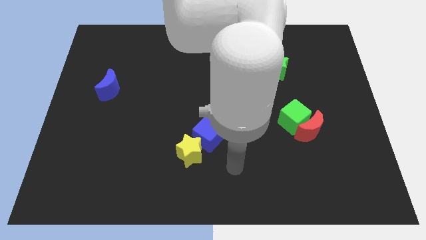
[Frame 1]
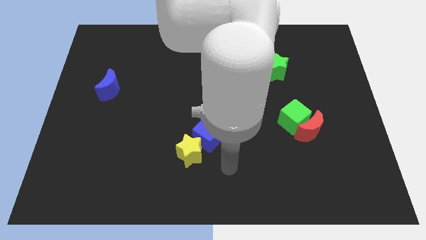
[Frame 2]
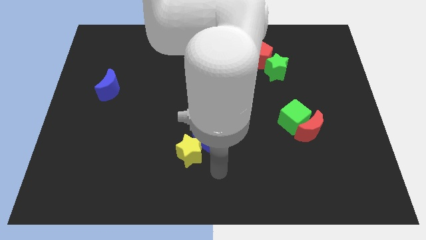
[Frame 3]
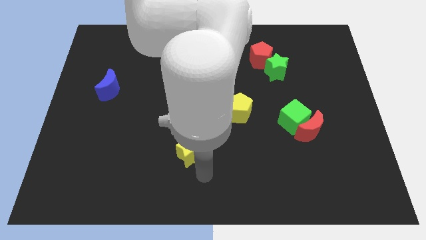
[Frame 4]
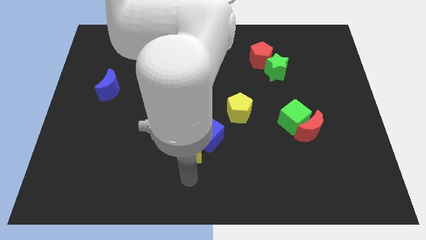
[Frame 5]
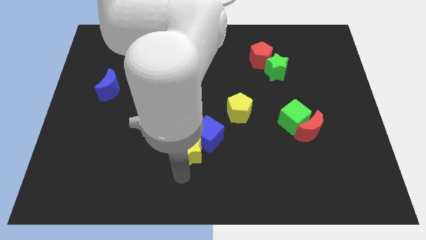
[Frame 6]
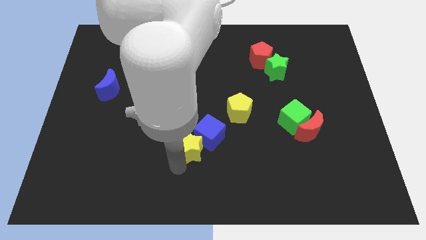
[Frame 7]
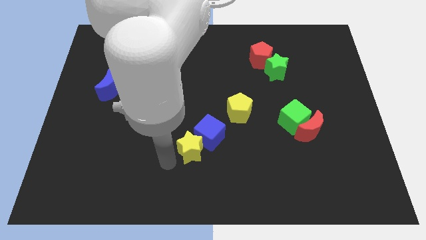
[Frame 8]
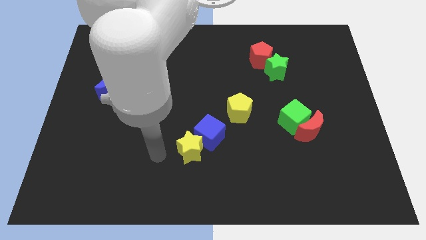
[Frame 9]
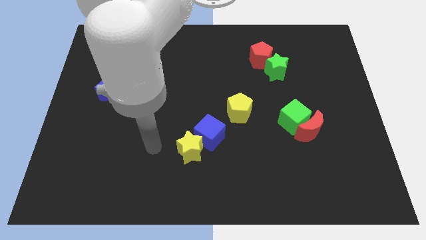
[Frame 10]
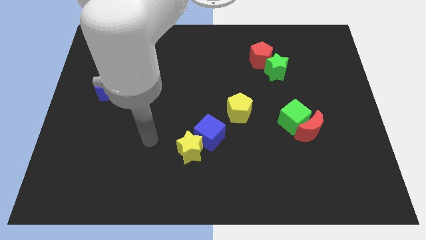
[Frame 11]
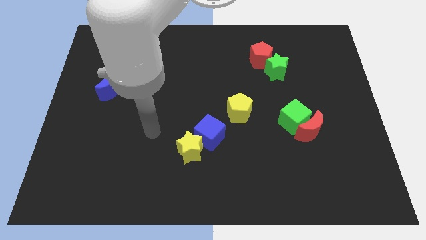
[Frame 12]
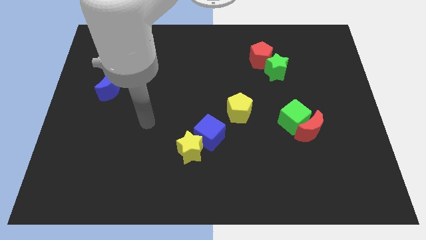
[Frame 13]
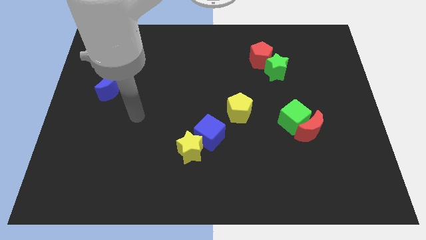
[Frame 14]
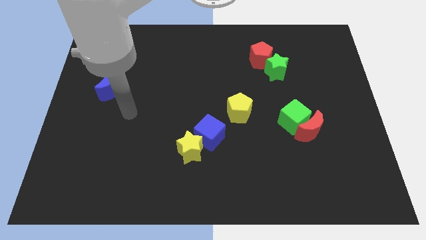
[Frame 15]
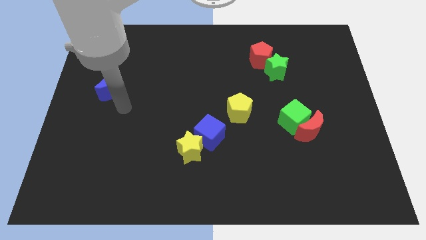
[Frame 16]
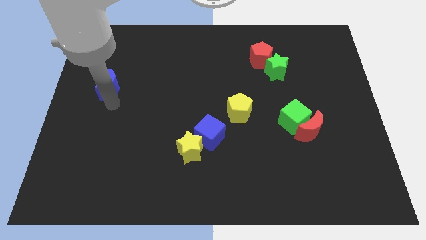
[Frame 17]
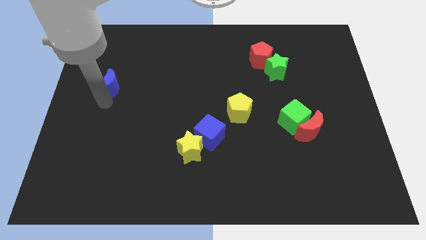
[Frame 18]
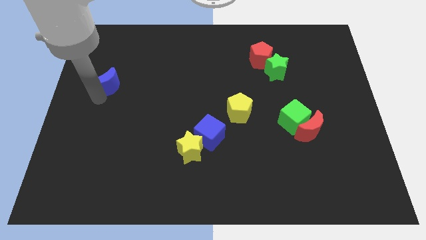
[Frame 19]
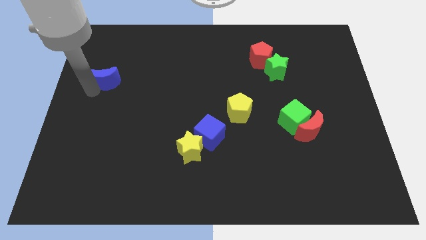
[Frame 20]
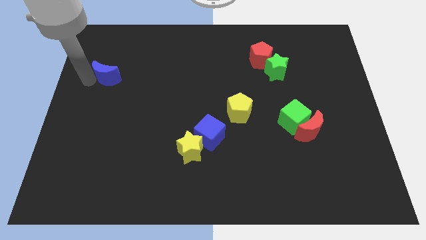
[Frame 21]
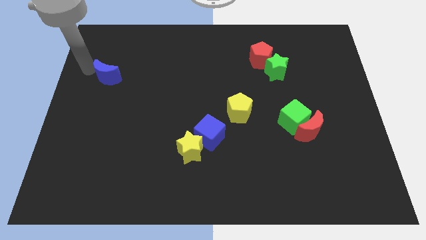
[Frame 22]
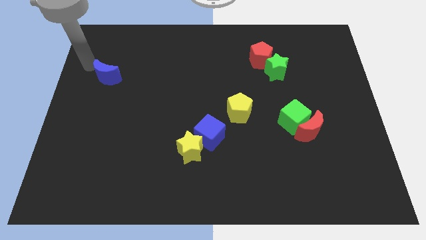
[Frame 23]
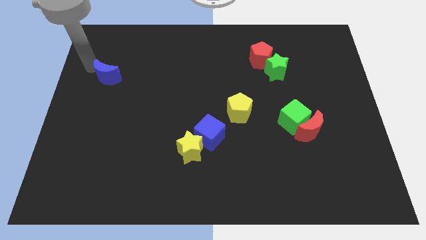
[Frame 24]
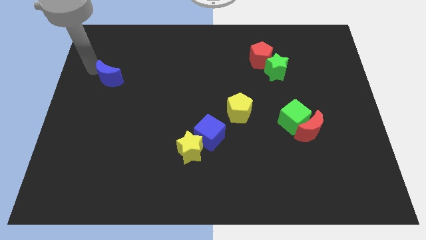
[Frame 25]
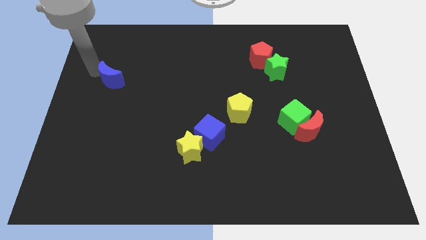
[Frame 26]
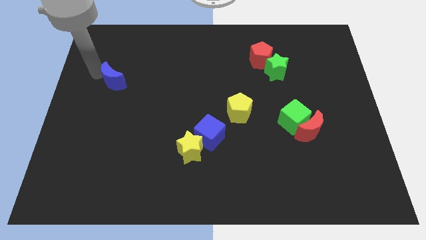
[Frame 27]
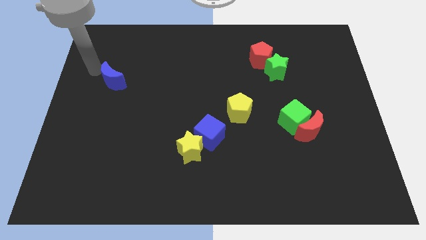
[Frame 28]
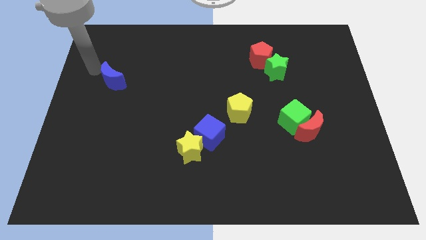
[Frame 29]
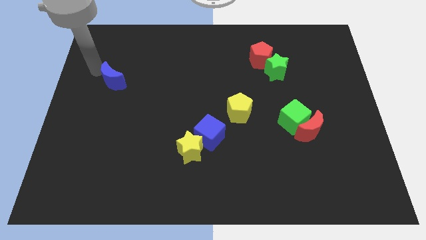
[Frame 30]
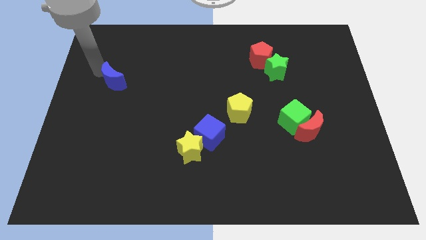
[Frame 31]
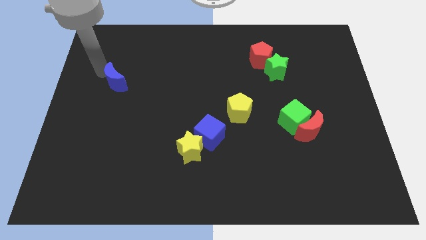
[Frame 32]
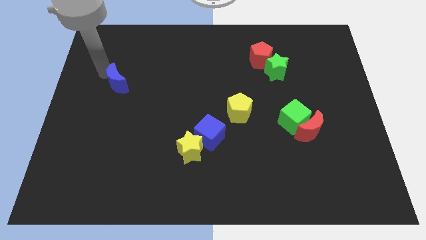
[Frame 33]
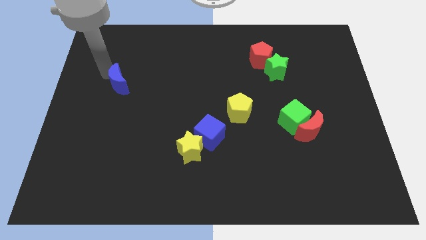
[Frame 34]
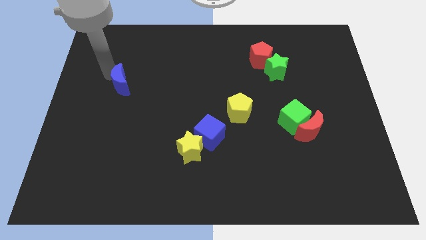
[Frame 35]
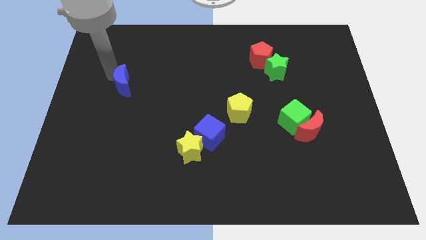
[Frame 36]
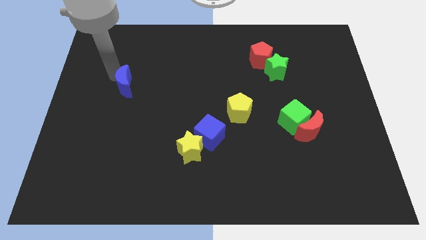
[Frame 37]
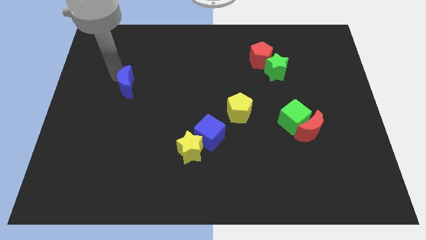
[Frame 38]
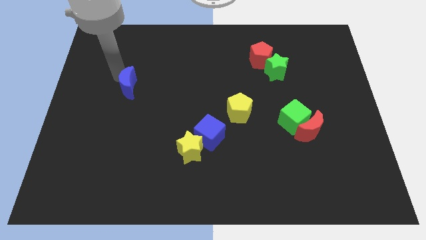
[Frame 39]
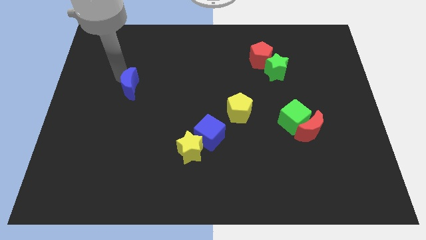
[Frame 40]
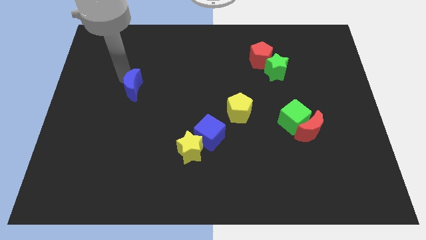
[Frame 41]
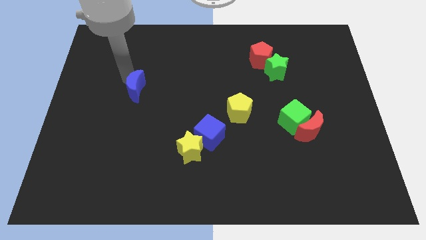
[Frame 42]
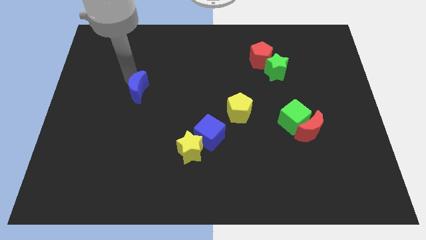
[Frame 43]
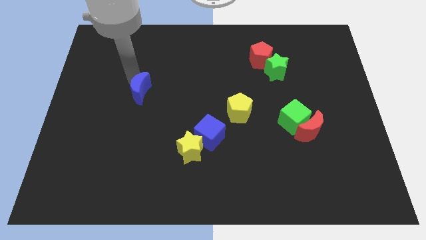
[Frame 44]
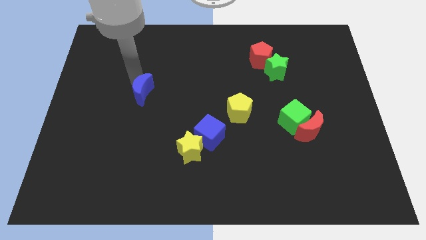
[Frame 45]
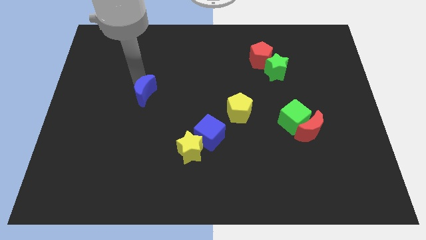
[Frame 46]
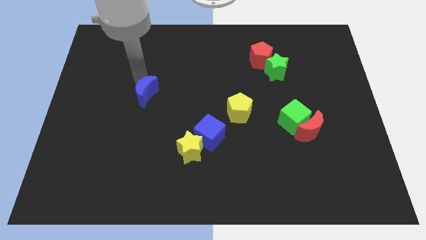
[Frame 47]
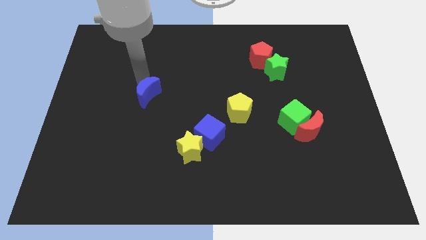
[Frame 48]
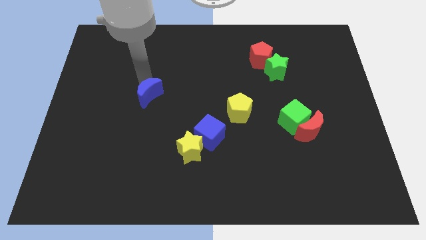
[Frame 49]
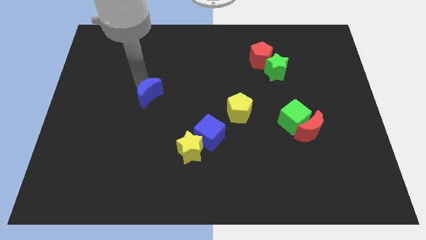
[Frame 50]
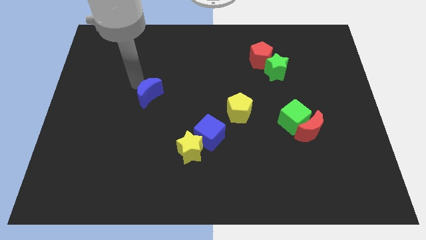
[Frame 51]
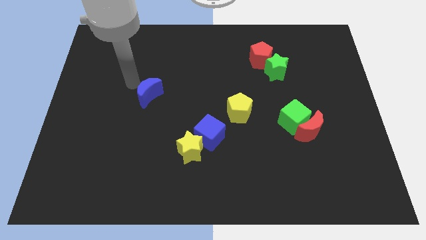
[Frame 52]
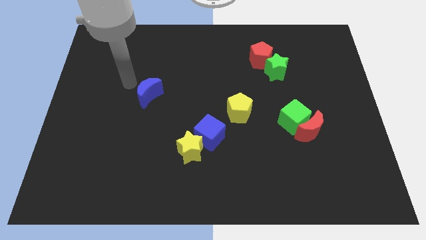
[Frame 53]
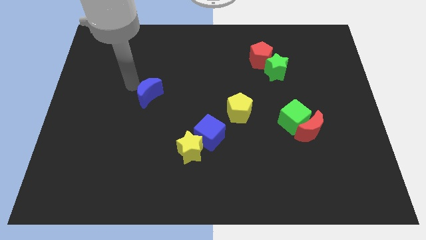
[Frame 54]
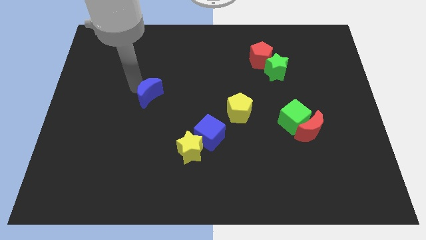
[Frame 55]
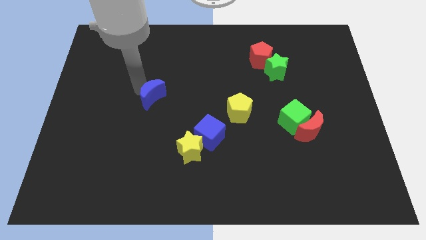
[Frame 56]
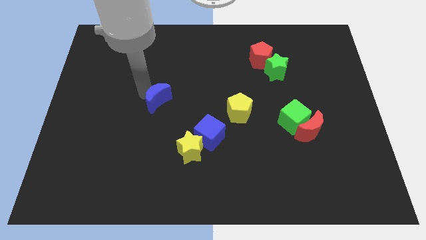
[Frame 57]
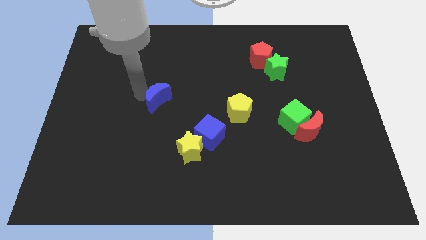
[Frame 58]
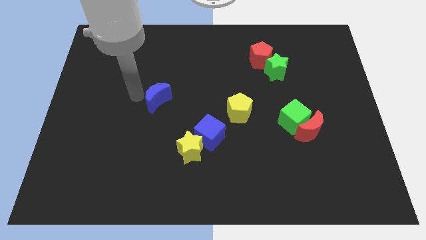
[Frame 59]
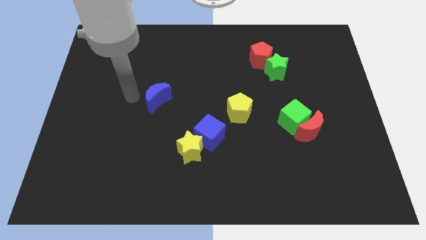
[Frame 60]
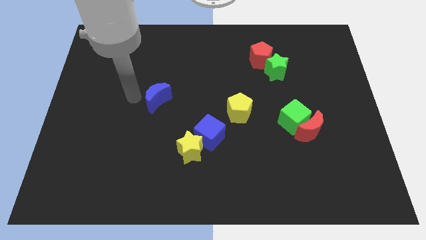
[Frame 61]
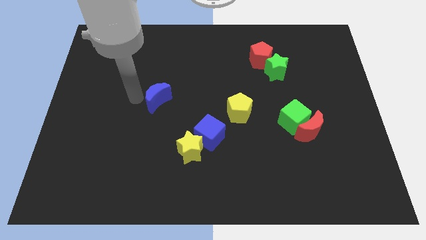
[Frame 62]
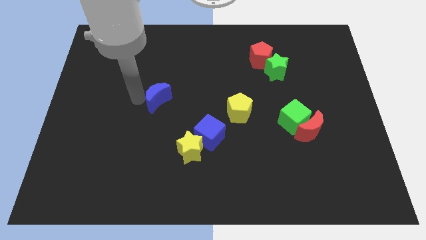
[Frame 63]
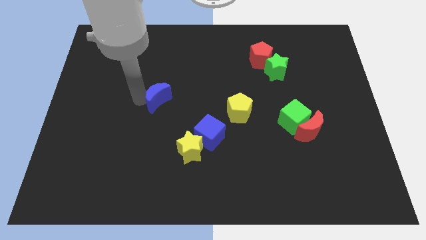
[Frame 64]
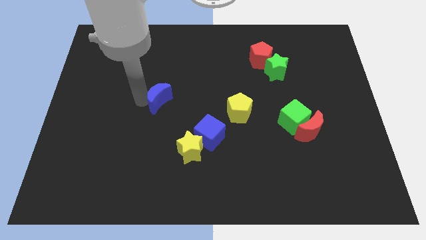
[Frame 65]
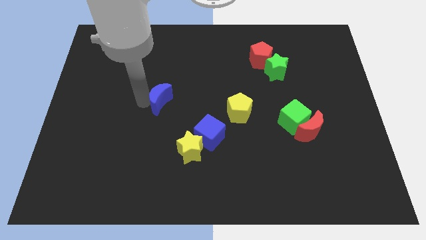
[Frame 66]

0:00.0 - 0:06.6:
slide the blue moon to the middle
